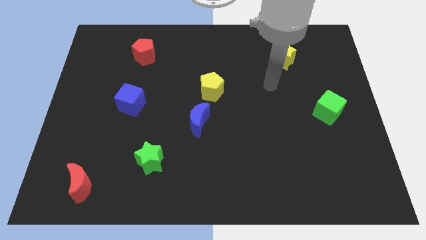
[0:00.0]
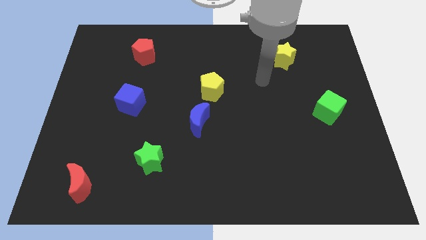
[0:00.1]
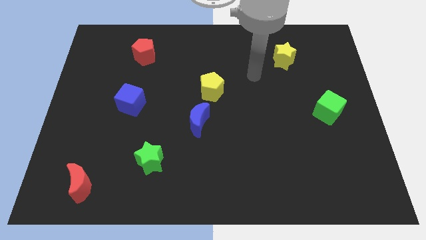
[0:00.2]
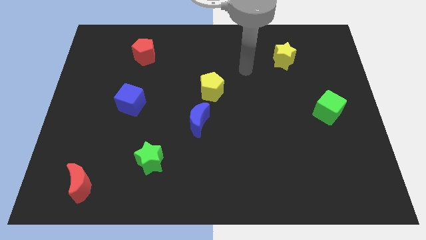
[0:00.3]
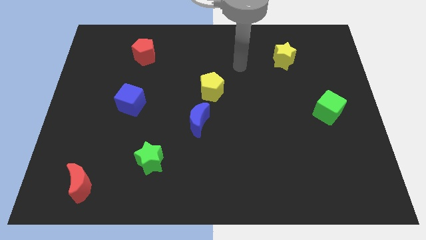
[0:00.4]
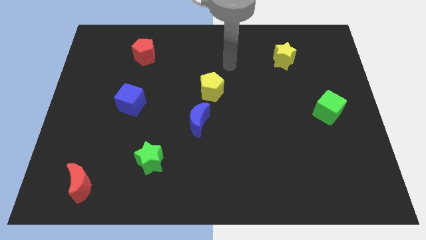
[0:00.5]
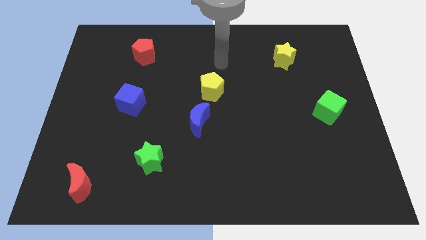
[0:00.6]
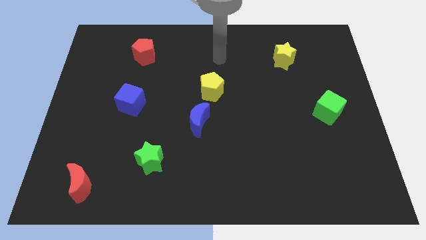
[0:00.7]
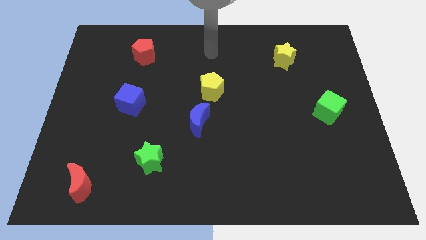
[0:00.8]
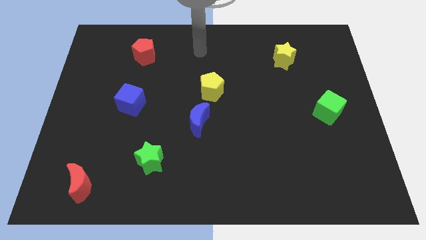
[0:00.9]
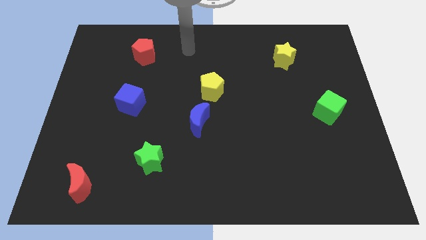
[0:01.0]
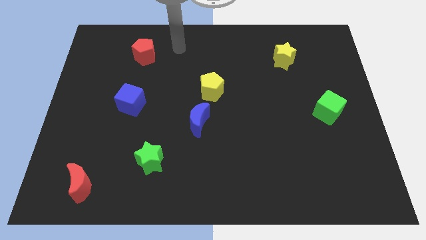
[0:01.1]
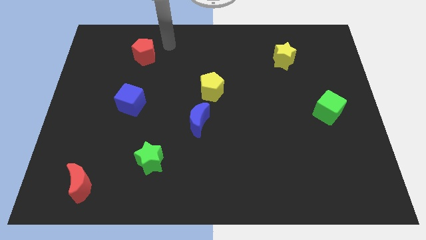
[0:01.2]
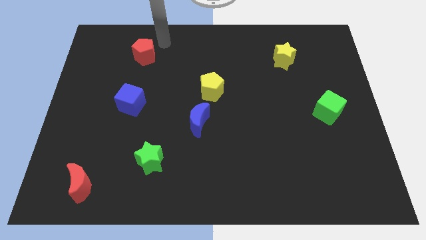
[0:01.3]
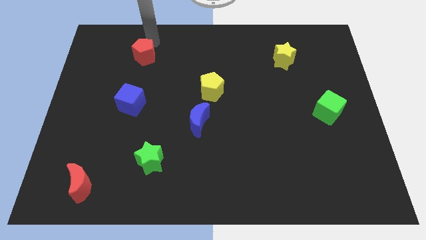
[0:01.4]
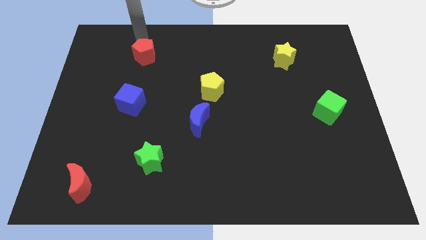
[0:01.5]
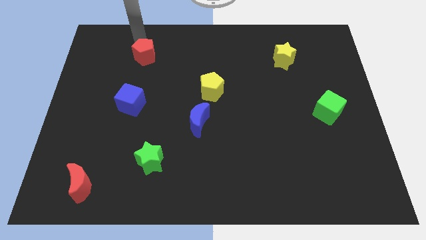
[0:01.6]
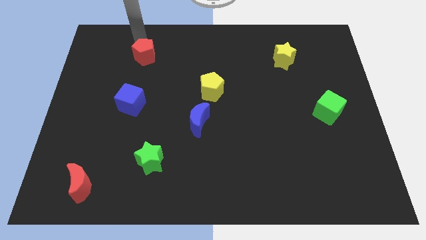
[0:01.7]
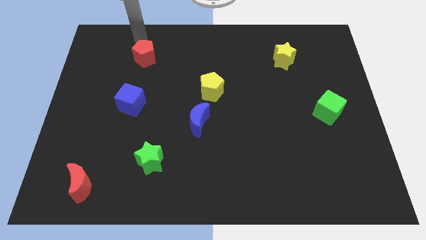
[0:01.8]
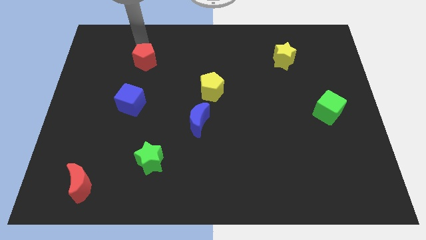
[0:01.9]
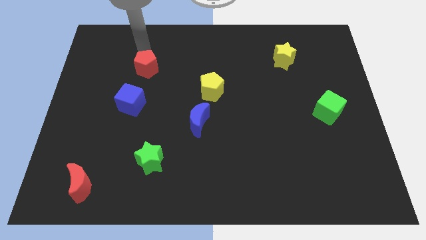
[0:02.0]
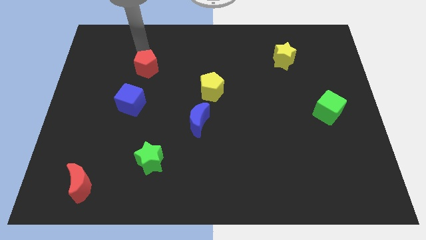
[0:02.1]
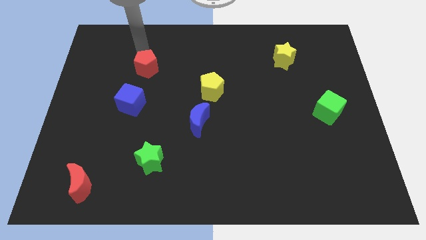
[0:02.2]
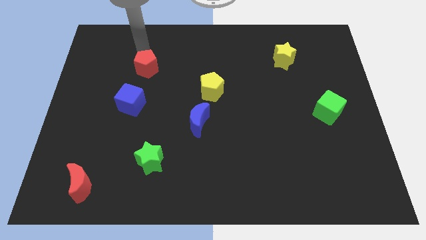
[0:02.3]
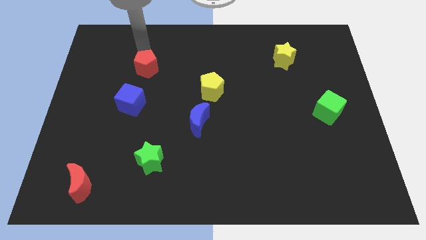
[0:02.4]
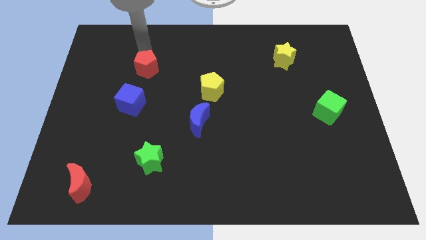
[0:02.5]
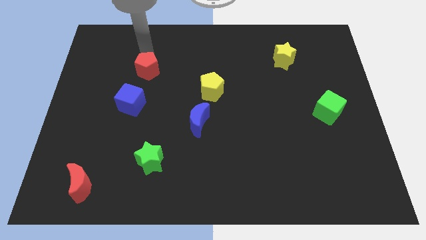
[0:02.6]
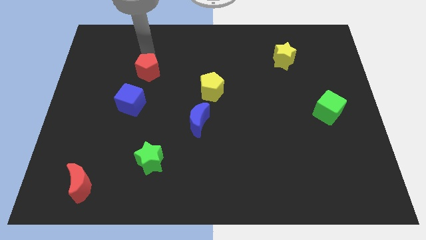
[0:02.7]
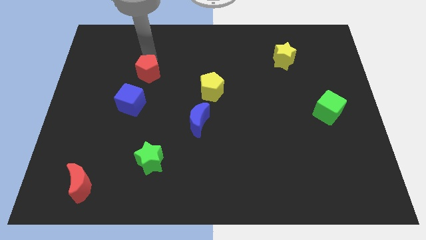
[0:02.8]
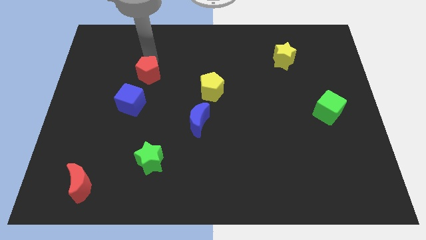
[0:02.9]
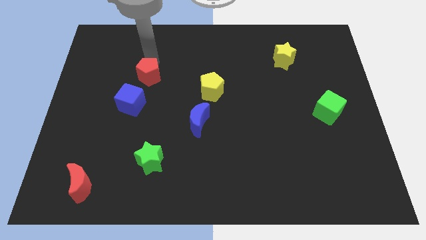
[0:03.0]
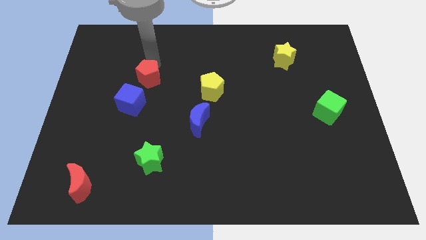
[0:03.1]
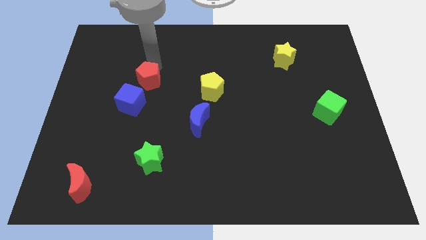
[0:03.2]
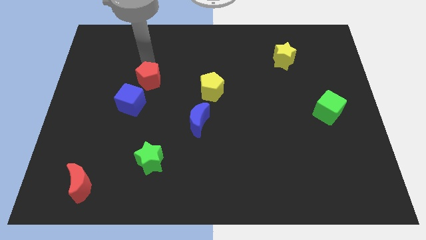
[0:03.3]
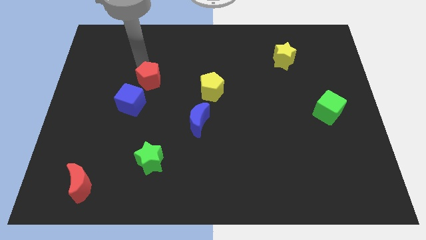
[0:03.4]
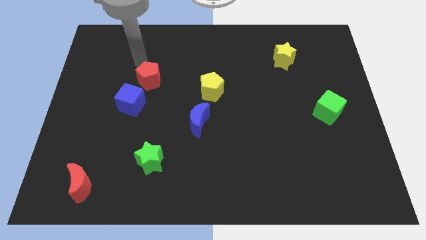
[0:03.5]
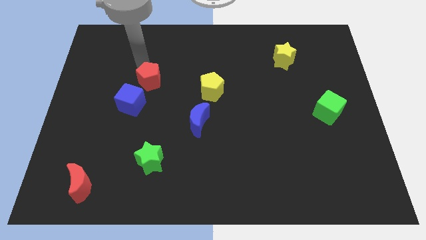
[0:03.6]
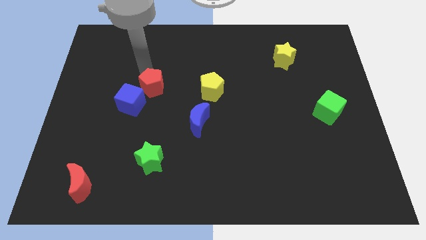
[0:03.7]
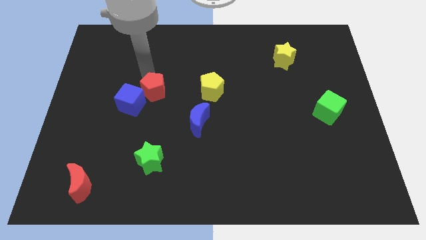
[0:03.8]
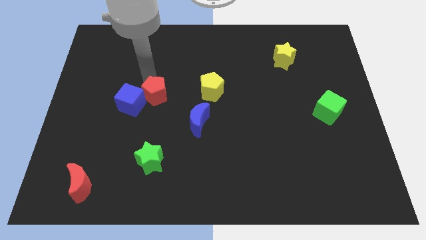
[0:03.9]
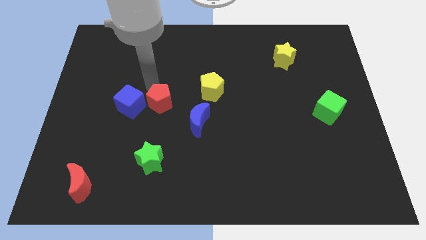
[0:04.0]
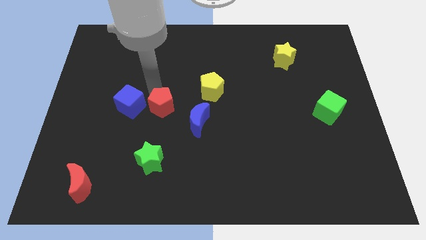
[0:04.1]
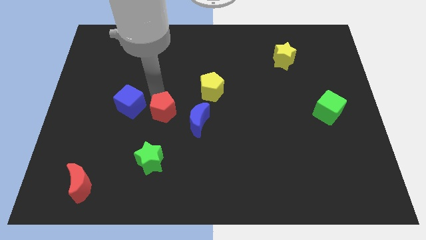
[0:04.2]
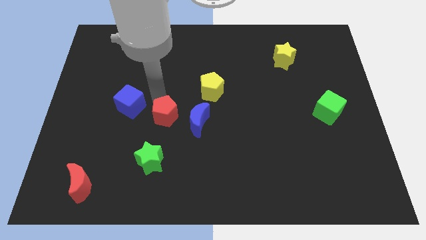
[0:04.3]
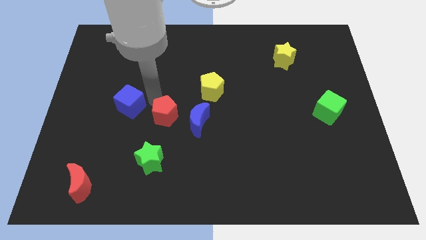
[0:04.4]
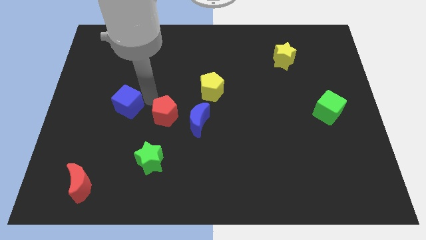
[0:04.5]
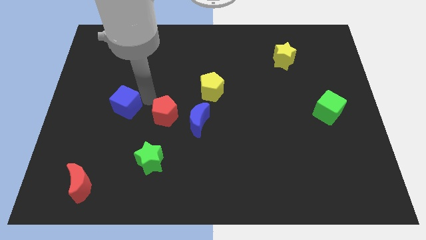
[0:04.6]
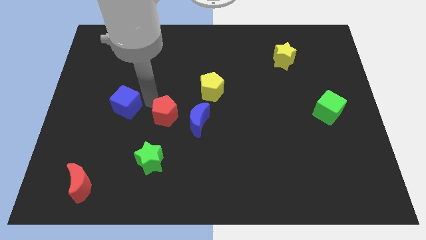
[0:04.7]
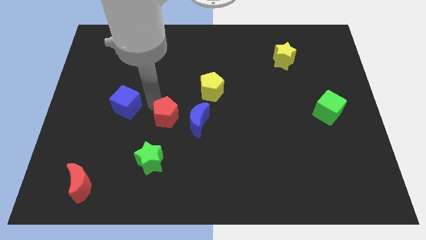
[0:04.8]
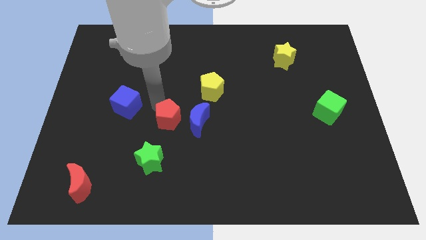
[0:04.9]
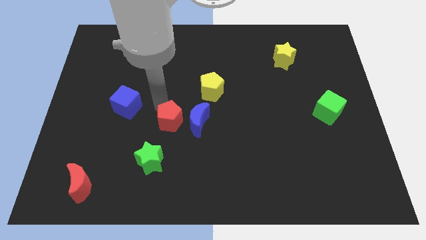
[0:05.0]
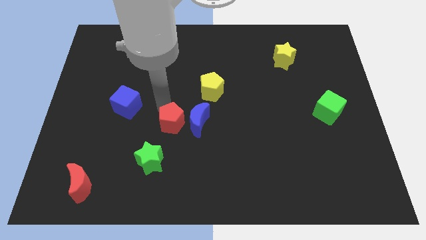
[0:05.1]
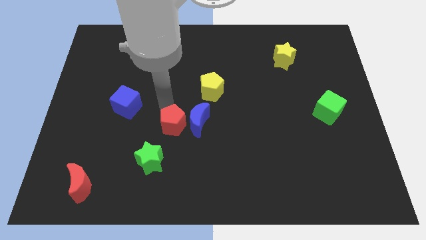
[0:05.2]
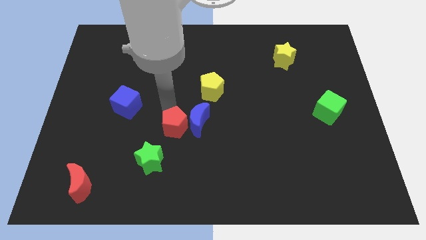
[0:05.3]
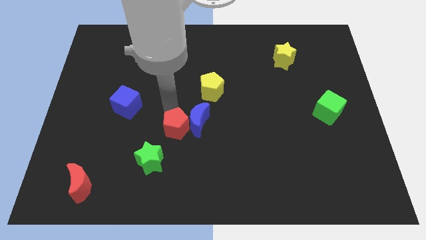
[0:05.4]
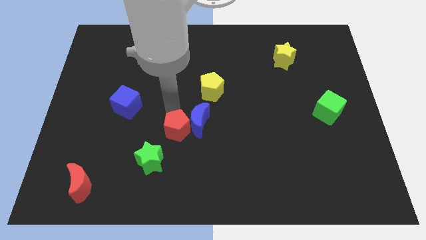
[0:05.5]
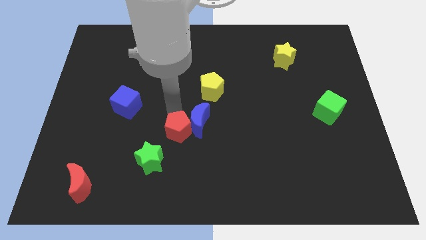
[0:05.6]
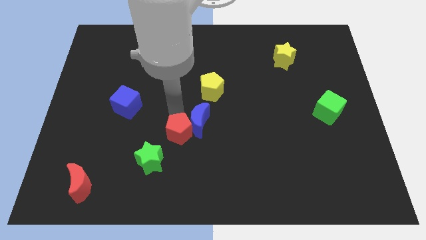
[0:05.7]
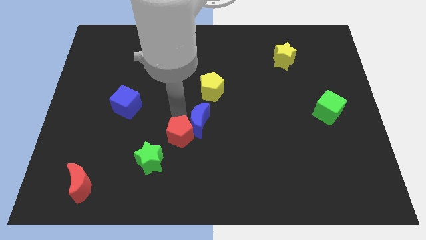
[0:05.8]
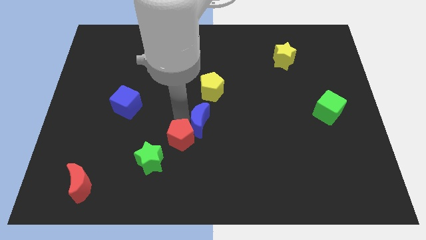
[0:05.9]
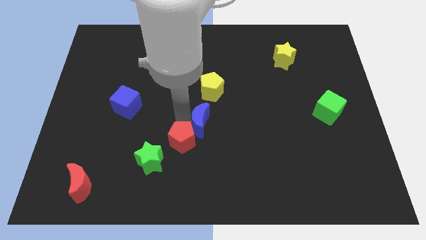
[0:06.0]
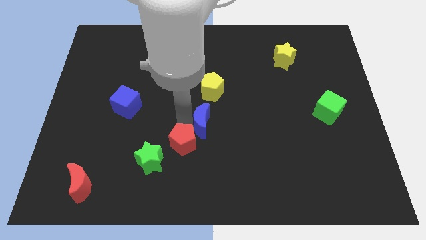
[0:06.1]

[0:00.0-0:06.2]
move the red pentagon to the right of the green star
